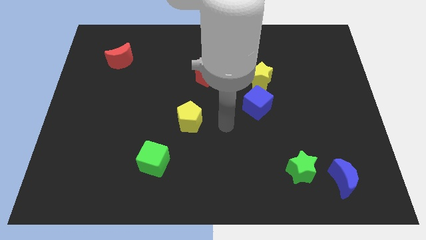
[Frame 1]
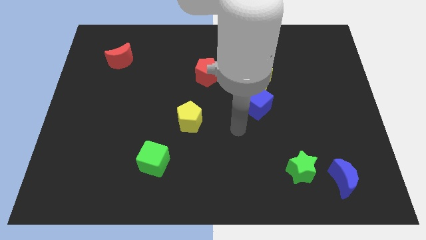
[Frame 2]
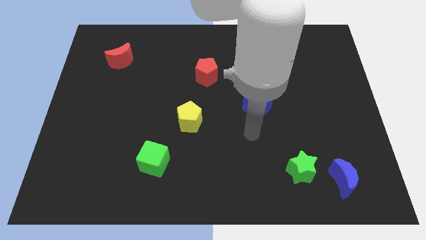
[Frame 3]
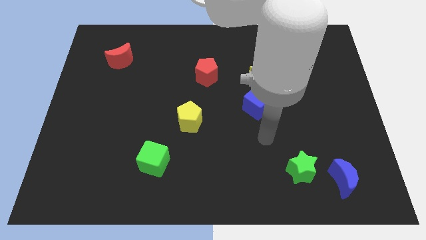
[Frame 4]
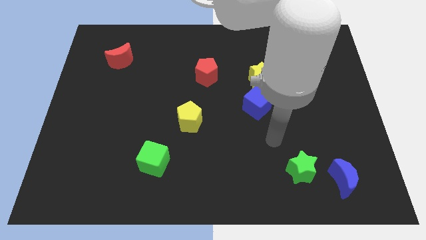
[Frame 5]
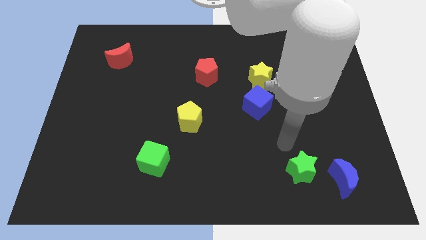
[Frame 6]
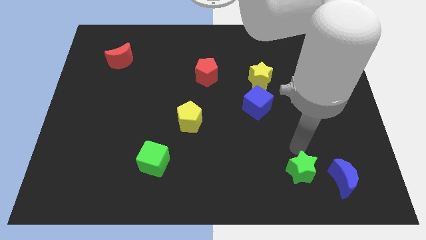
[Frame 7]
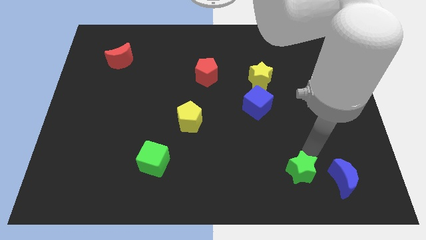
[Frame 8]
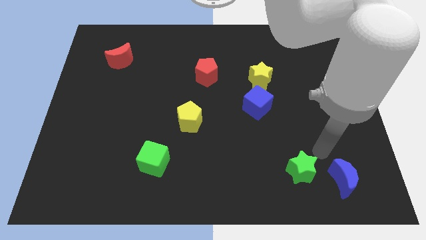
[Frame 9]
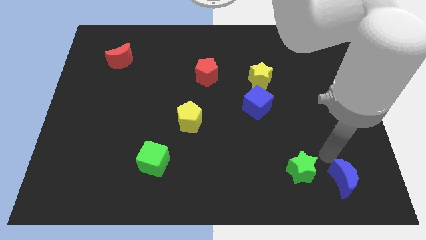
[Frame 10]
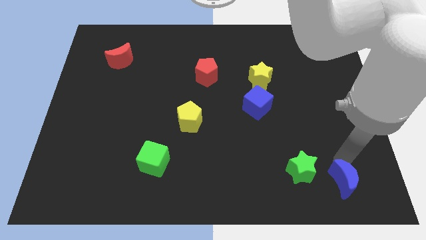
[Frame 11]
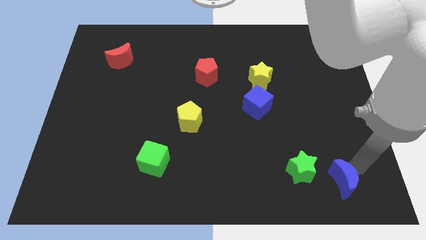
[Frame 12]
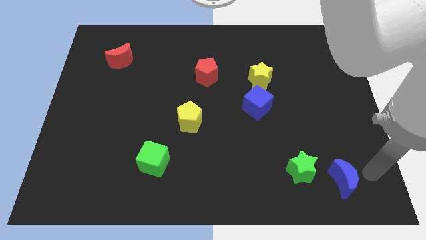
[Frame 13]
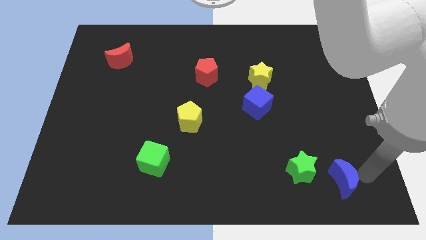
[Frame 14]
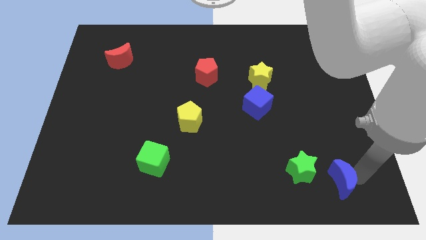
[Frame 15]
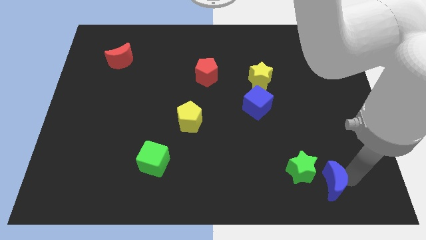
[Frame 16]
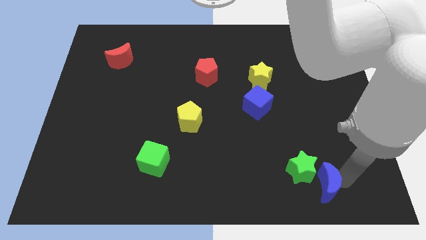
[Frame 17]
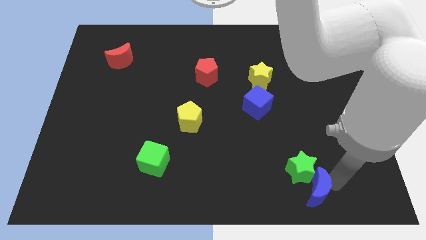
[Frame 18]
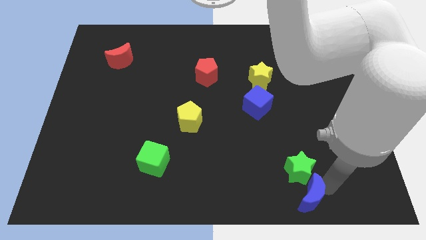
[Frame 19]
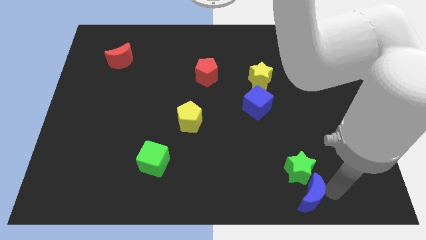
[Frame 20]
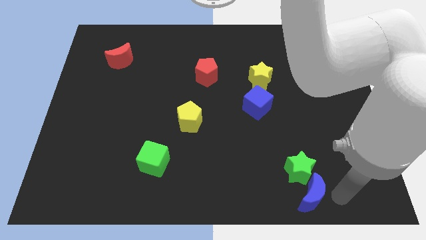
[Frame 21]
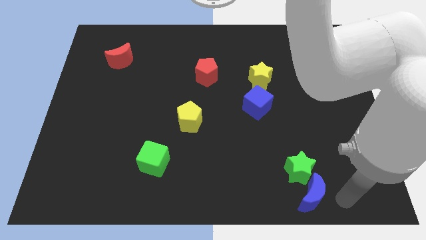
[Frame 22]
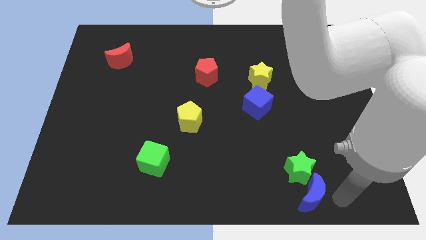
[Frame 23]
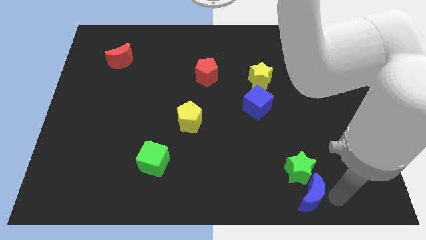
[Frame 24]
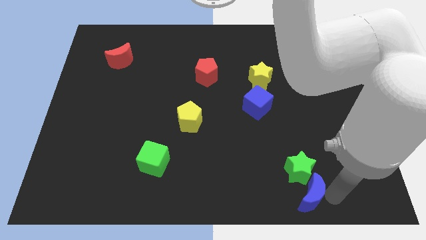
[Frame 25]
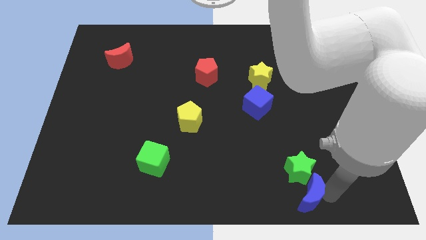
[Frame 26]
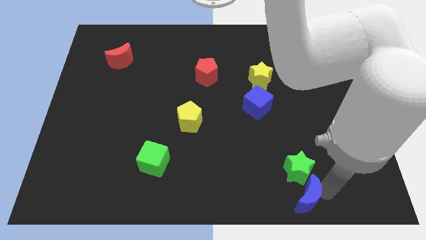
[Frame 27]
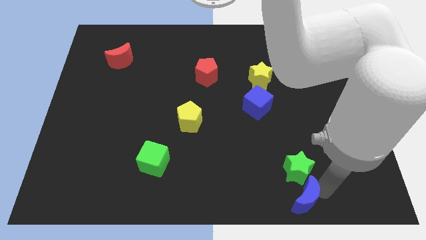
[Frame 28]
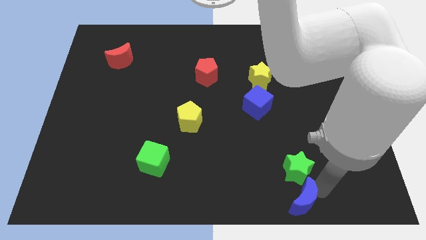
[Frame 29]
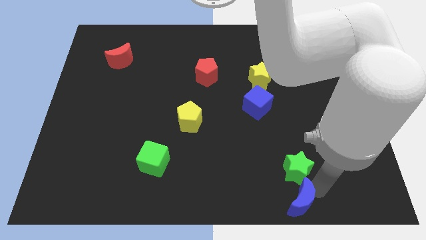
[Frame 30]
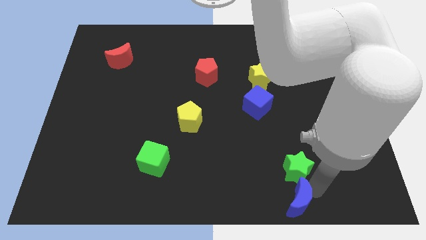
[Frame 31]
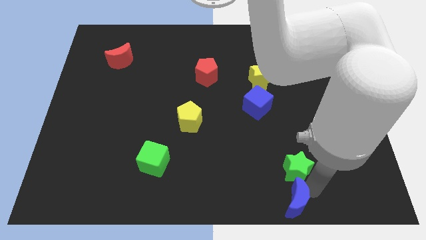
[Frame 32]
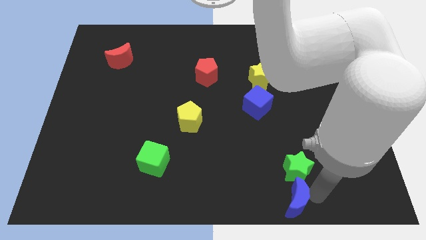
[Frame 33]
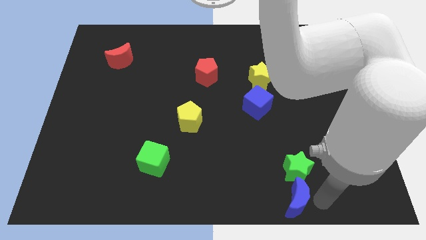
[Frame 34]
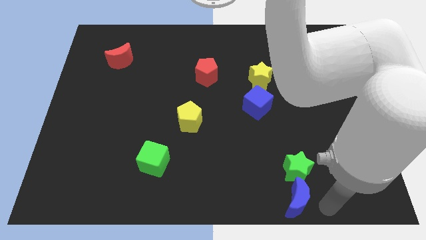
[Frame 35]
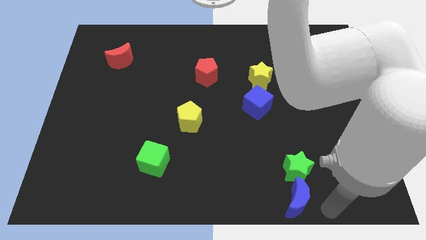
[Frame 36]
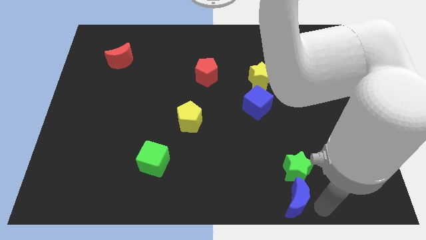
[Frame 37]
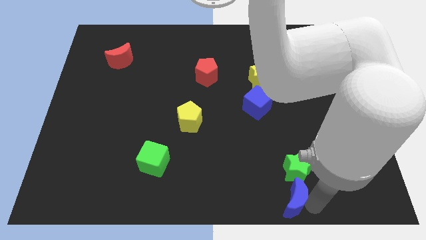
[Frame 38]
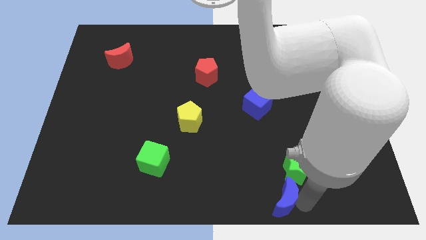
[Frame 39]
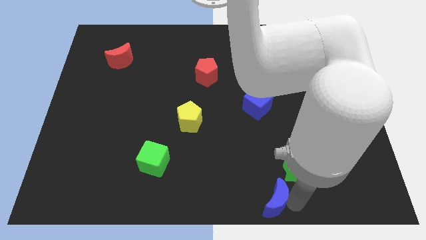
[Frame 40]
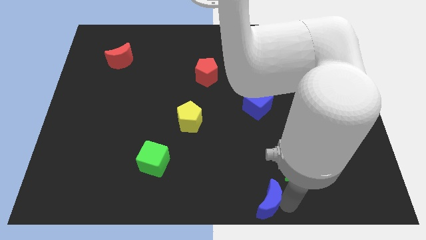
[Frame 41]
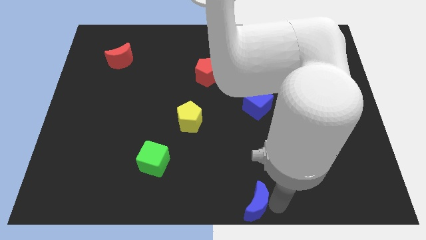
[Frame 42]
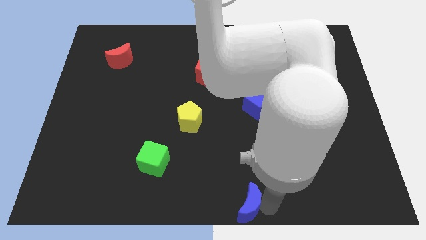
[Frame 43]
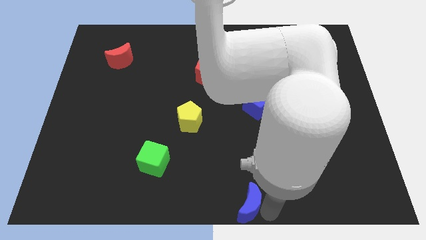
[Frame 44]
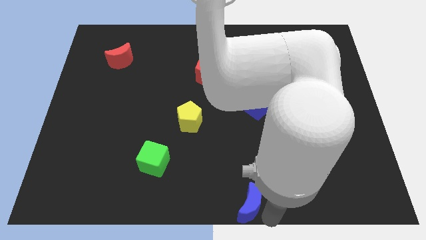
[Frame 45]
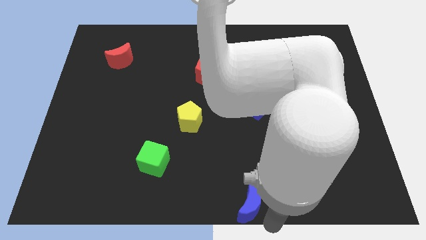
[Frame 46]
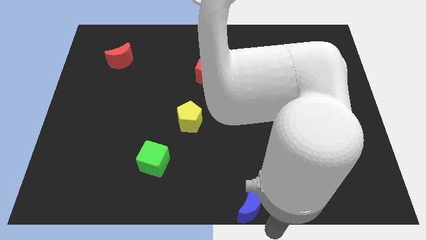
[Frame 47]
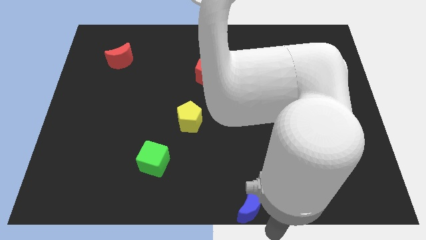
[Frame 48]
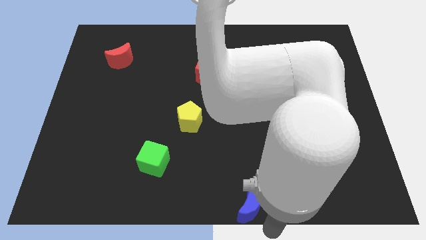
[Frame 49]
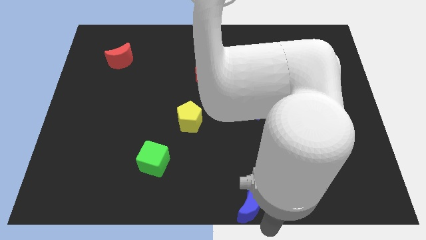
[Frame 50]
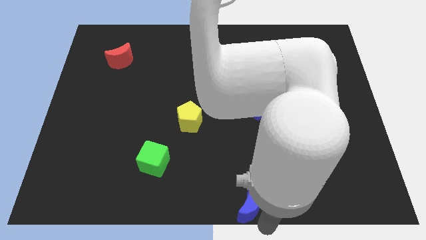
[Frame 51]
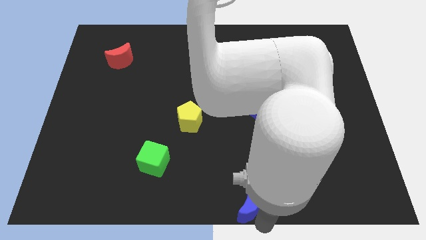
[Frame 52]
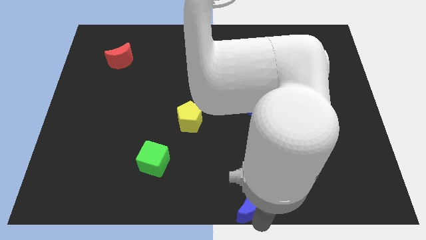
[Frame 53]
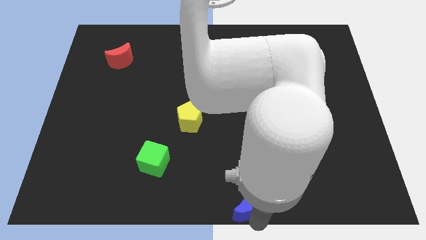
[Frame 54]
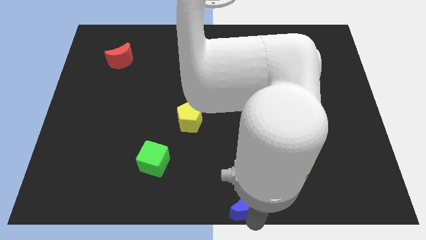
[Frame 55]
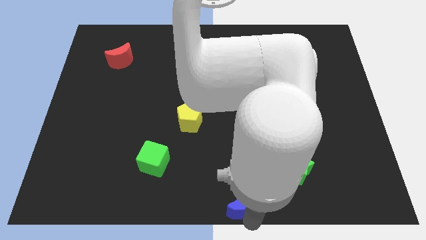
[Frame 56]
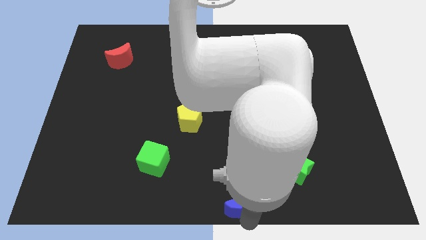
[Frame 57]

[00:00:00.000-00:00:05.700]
slide the blue moon to the left

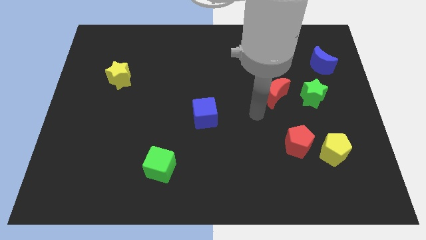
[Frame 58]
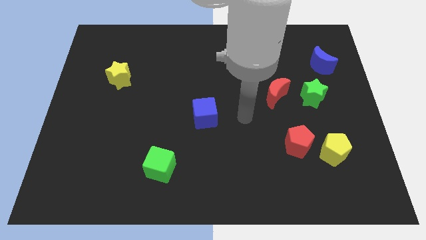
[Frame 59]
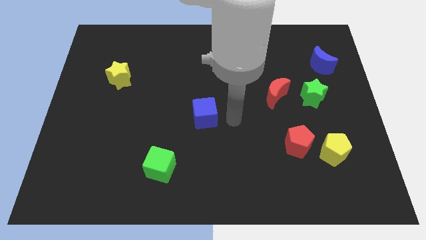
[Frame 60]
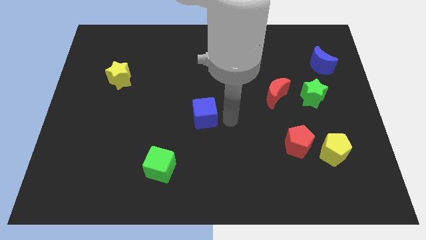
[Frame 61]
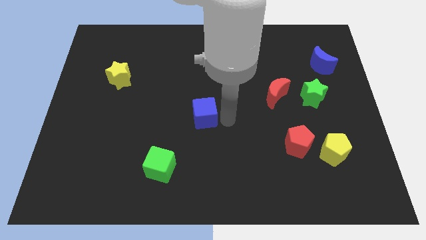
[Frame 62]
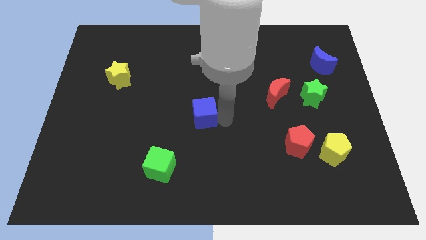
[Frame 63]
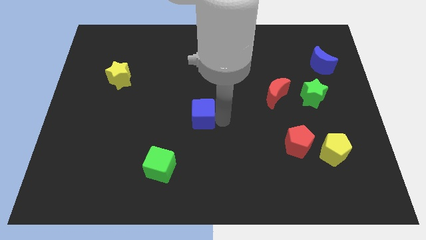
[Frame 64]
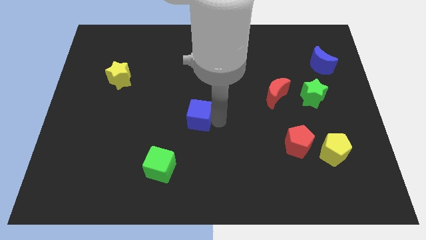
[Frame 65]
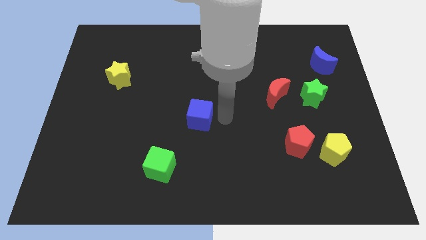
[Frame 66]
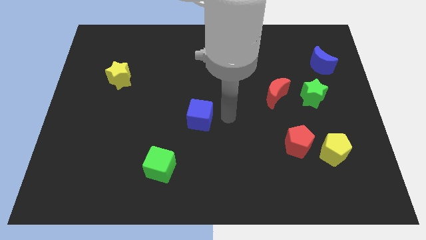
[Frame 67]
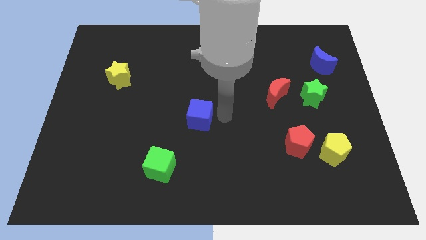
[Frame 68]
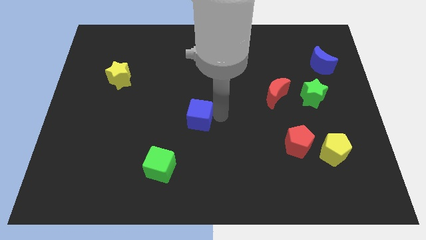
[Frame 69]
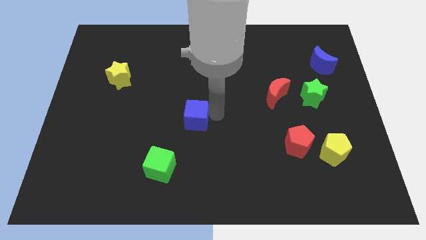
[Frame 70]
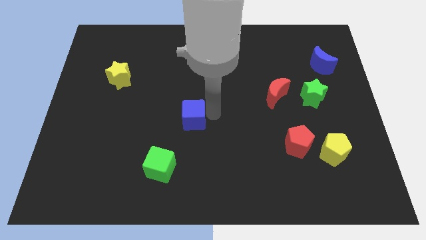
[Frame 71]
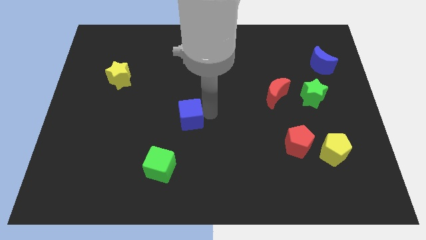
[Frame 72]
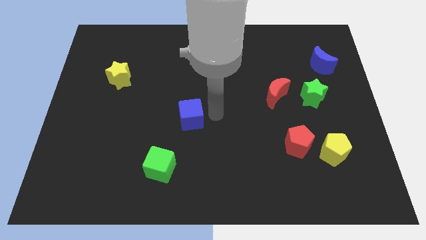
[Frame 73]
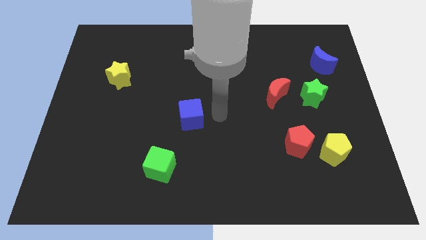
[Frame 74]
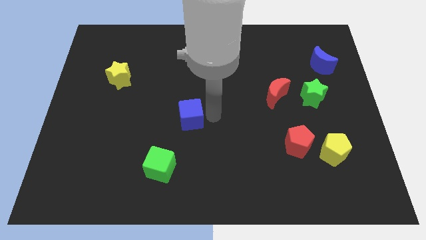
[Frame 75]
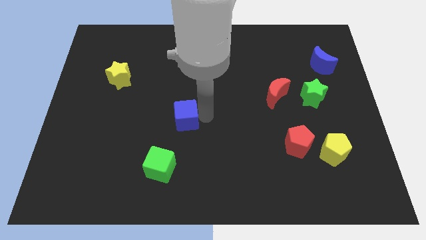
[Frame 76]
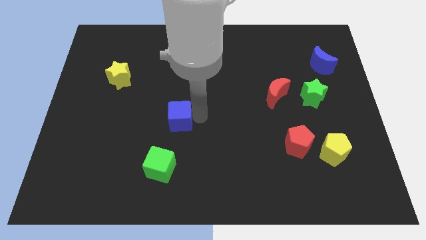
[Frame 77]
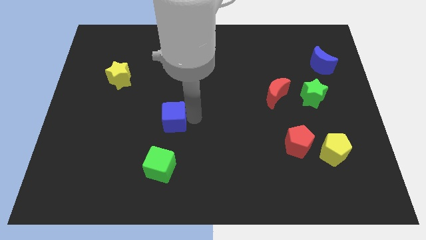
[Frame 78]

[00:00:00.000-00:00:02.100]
slightly move the blue cube left
